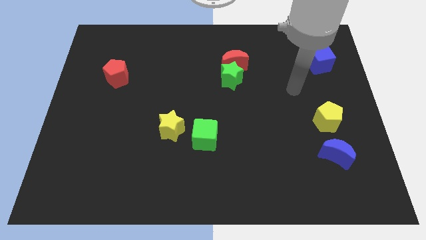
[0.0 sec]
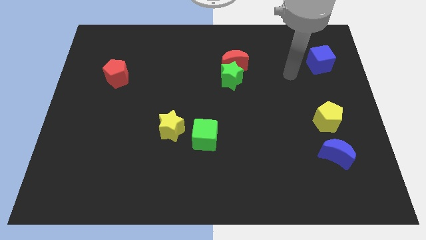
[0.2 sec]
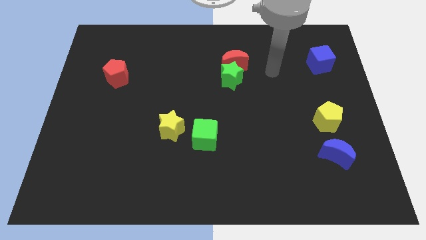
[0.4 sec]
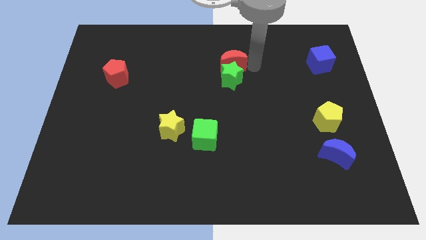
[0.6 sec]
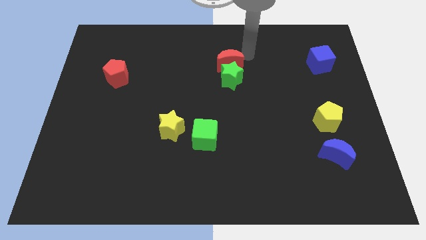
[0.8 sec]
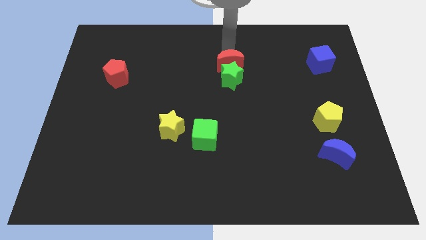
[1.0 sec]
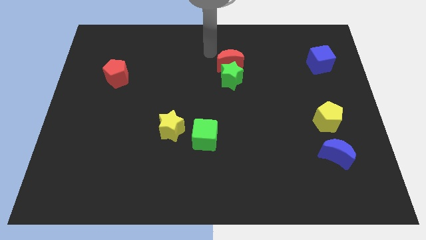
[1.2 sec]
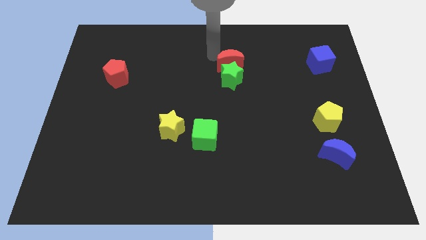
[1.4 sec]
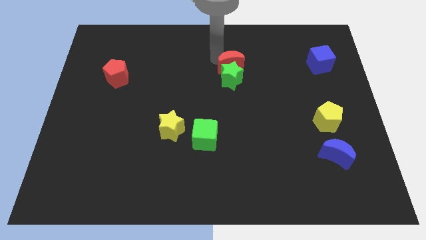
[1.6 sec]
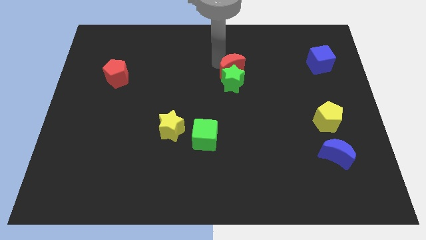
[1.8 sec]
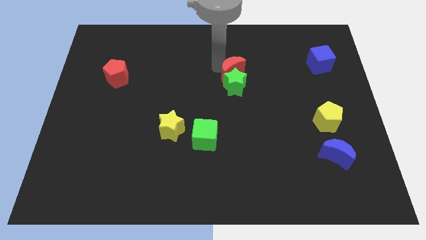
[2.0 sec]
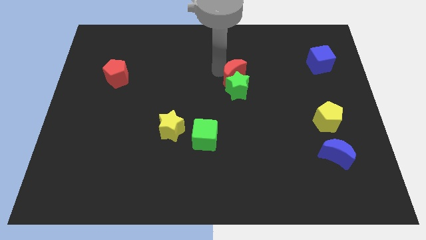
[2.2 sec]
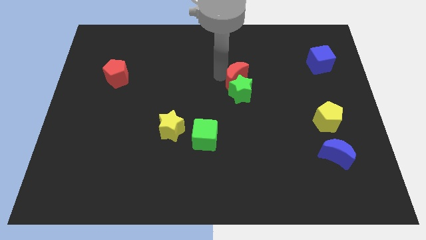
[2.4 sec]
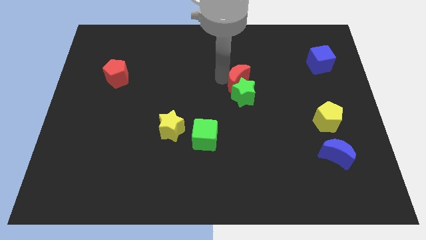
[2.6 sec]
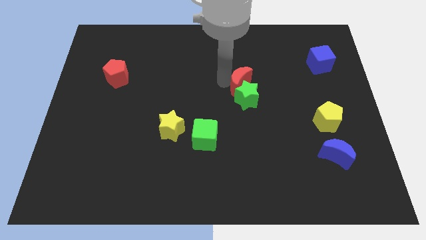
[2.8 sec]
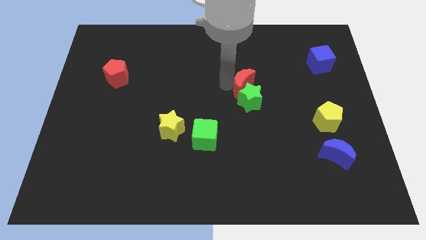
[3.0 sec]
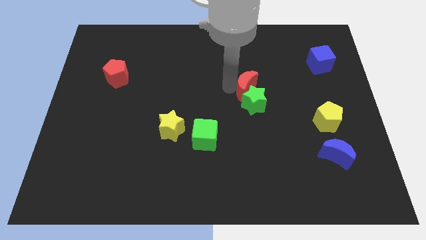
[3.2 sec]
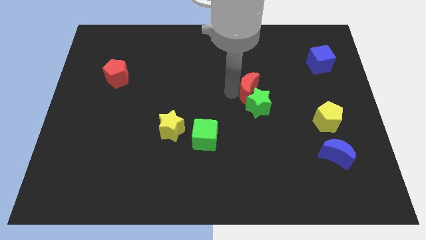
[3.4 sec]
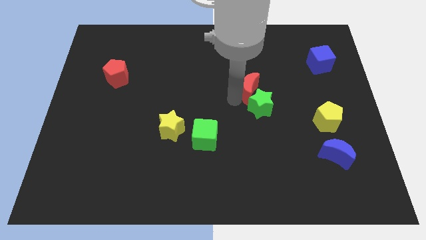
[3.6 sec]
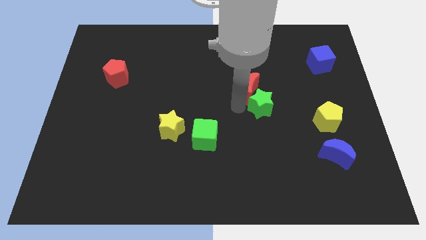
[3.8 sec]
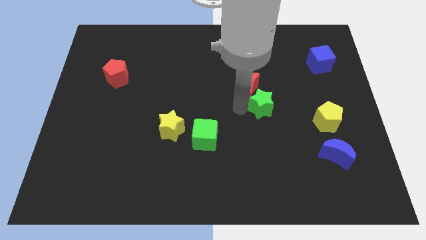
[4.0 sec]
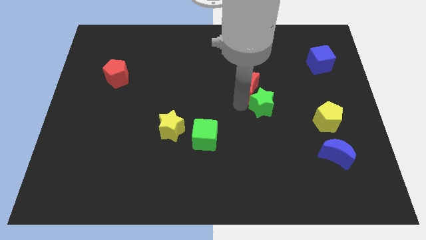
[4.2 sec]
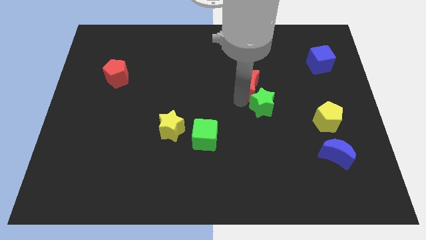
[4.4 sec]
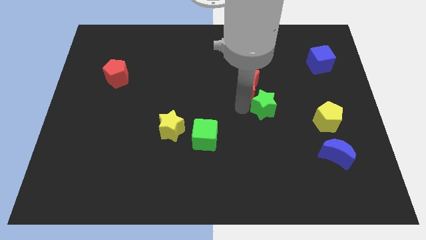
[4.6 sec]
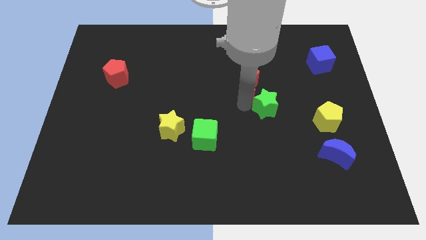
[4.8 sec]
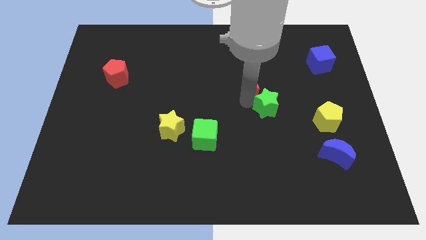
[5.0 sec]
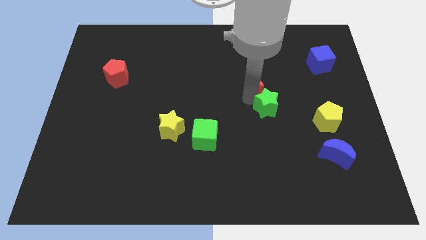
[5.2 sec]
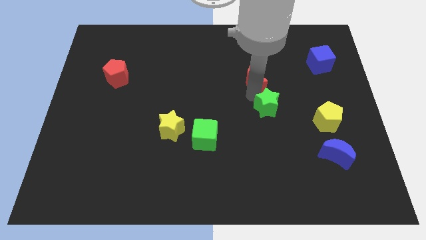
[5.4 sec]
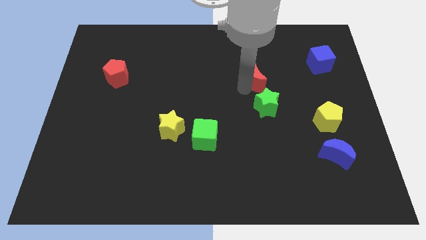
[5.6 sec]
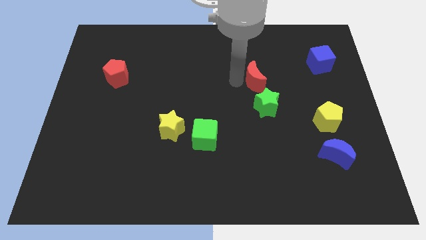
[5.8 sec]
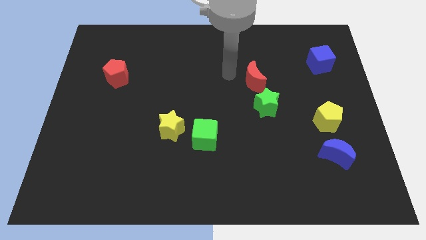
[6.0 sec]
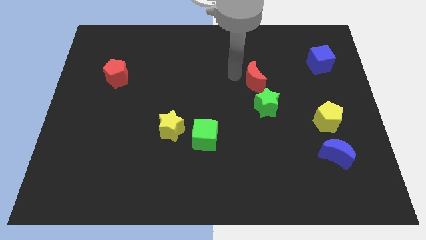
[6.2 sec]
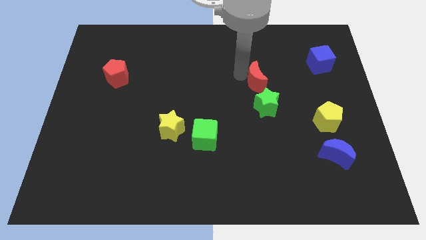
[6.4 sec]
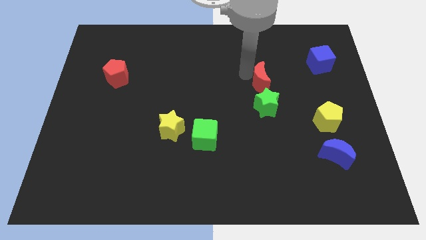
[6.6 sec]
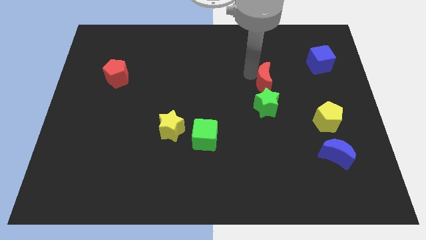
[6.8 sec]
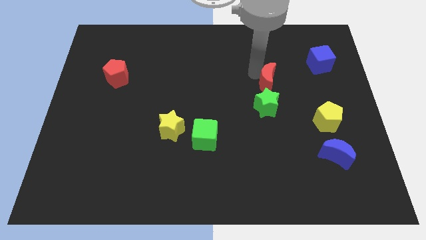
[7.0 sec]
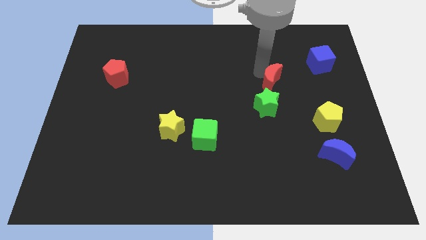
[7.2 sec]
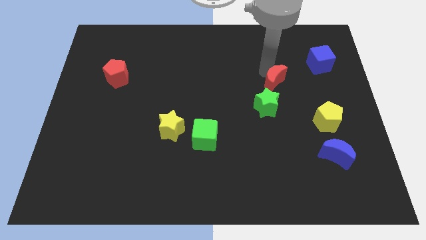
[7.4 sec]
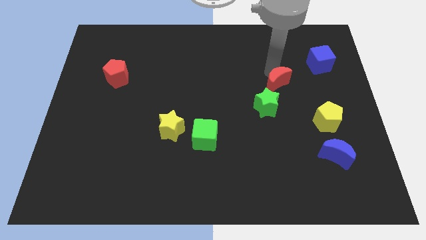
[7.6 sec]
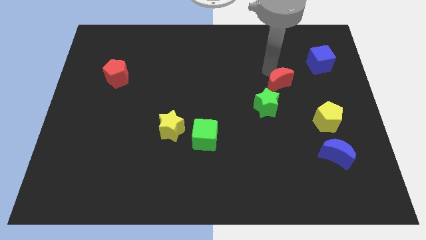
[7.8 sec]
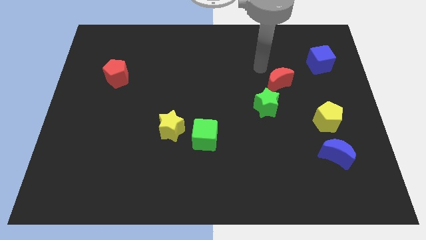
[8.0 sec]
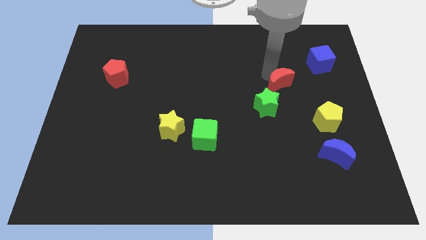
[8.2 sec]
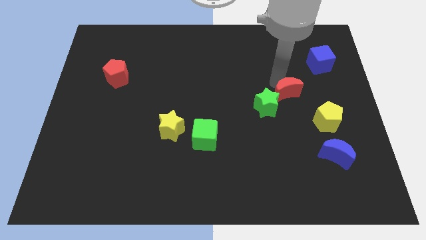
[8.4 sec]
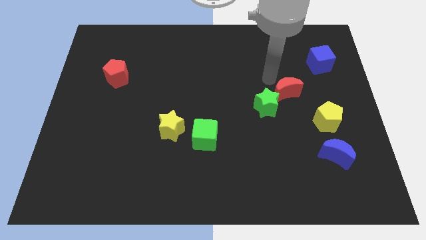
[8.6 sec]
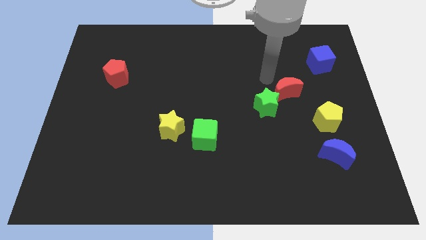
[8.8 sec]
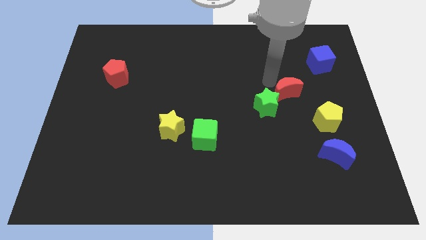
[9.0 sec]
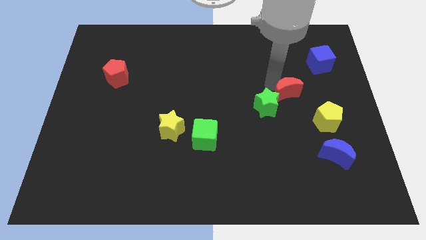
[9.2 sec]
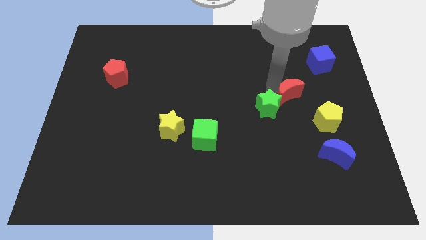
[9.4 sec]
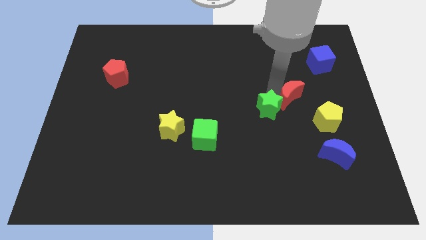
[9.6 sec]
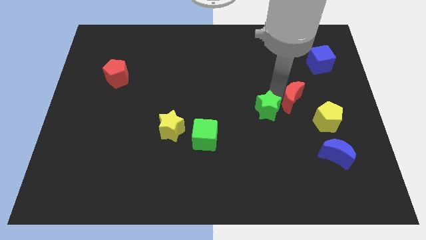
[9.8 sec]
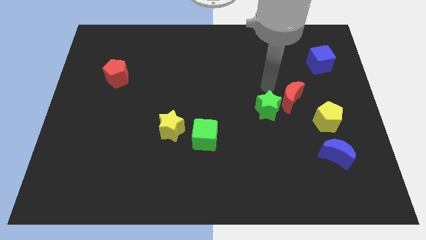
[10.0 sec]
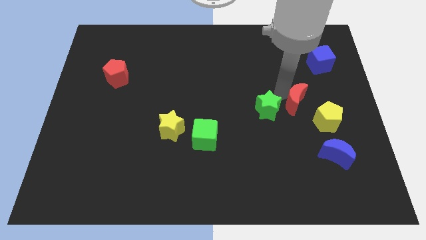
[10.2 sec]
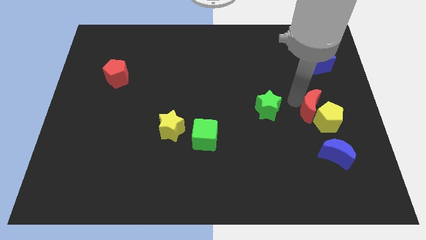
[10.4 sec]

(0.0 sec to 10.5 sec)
push the red moon towards the yellow pentagon

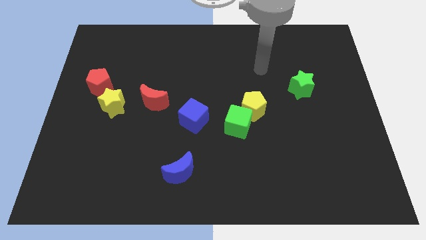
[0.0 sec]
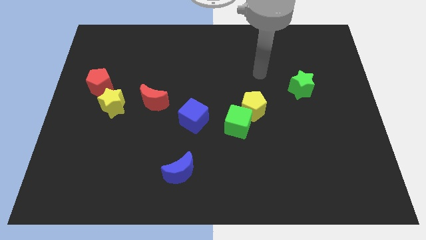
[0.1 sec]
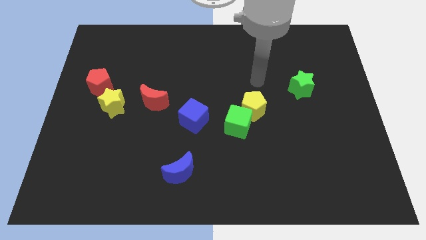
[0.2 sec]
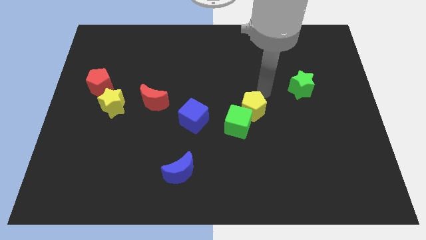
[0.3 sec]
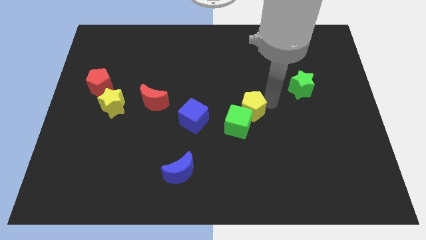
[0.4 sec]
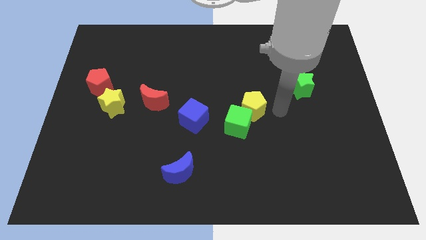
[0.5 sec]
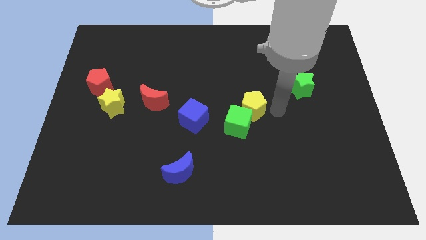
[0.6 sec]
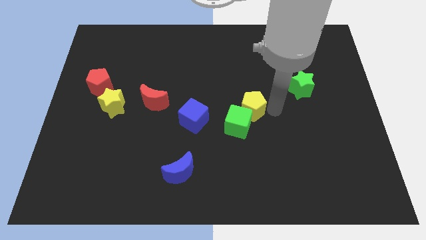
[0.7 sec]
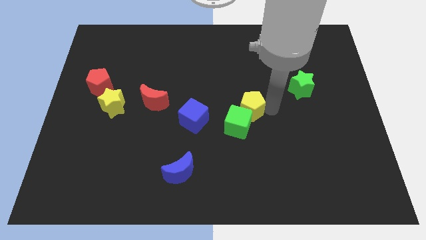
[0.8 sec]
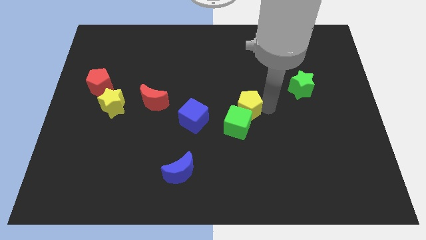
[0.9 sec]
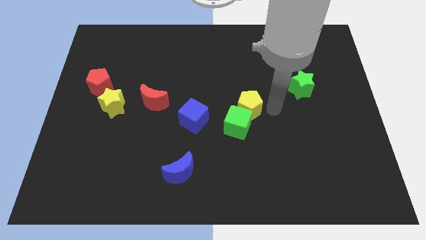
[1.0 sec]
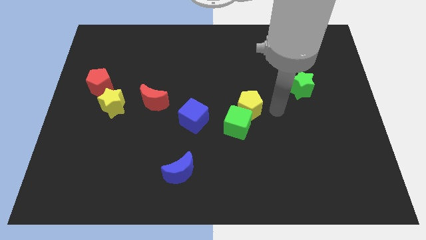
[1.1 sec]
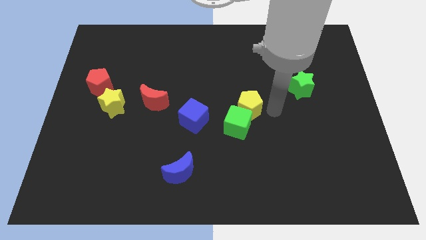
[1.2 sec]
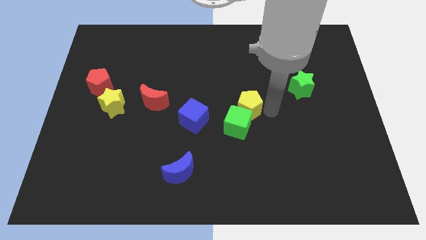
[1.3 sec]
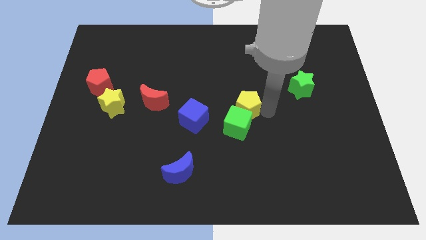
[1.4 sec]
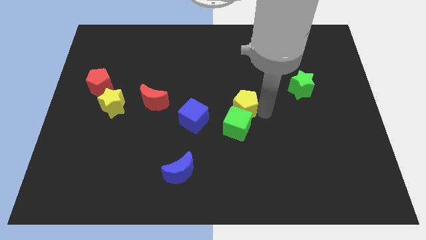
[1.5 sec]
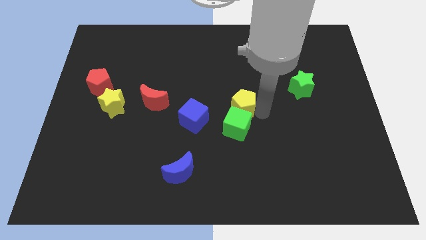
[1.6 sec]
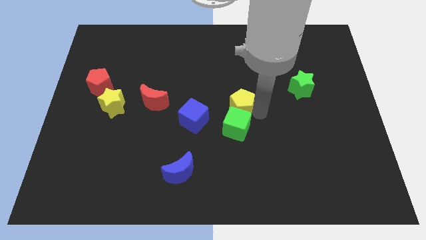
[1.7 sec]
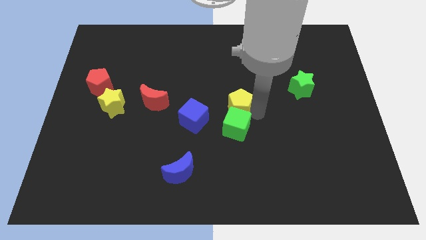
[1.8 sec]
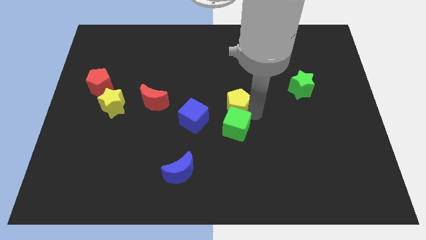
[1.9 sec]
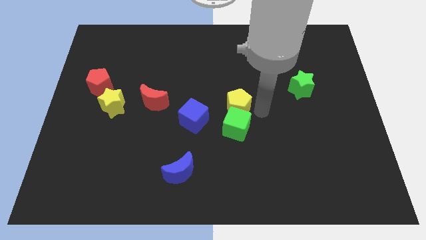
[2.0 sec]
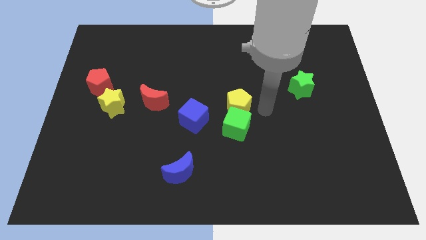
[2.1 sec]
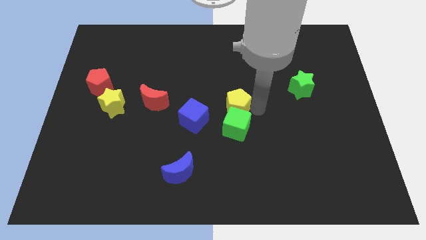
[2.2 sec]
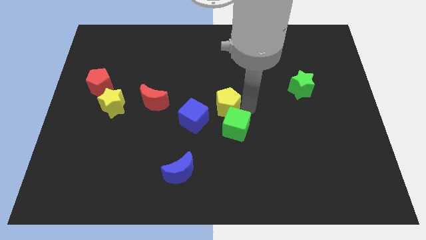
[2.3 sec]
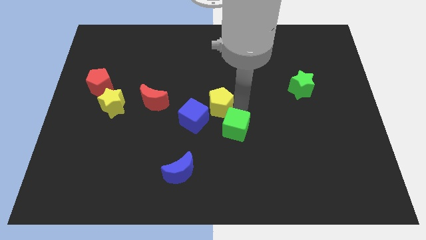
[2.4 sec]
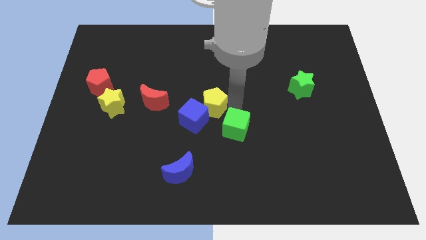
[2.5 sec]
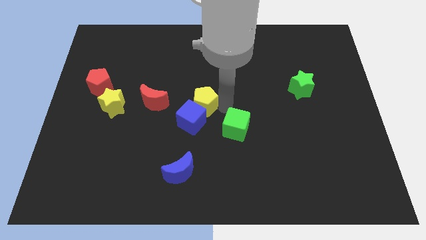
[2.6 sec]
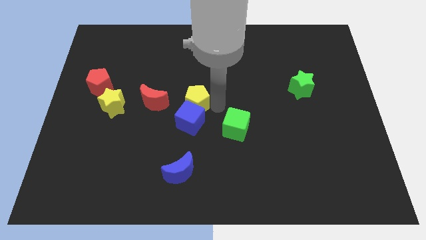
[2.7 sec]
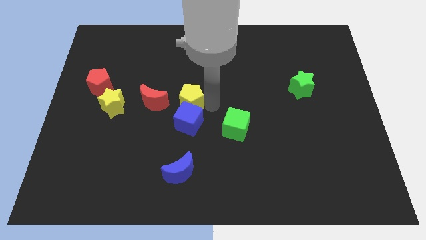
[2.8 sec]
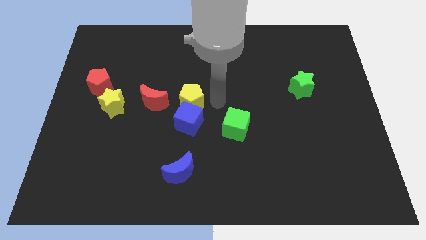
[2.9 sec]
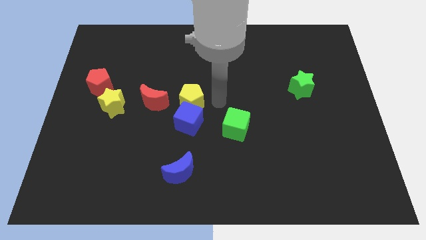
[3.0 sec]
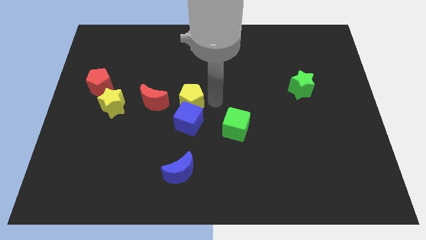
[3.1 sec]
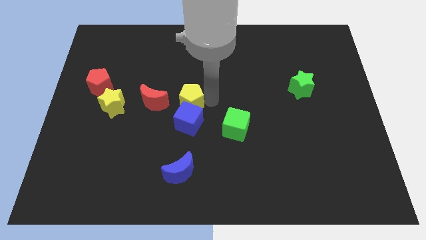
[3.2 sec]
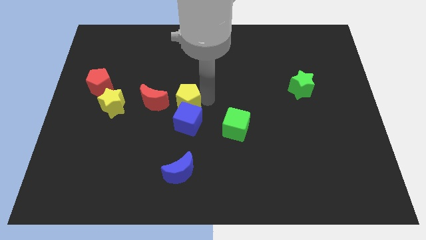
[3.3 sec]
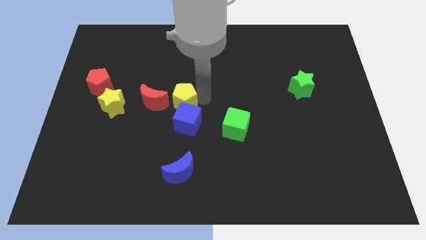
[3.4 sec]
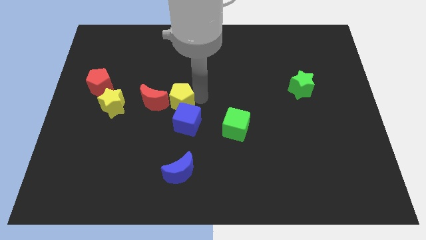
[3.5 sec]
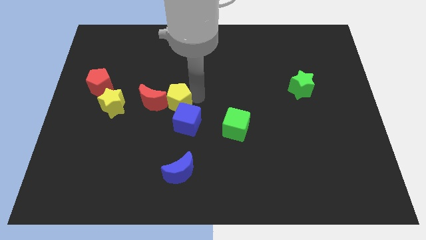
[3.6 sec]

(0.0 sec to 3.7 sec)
move the yellow pentagon towards the red moon
